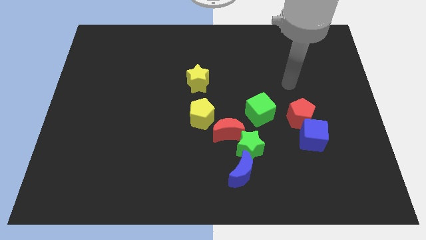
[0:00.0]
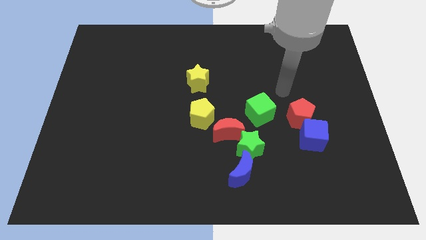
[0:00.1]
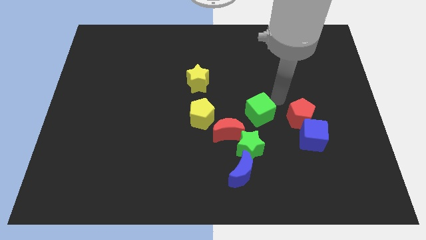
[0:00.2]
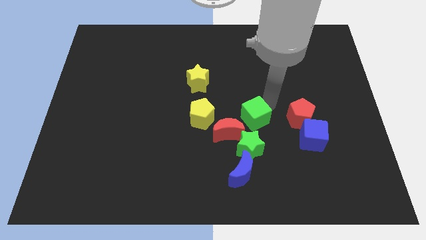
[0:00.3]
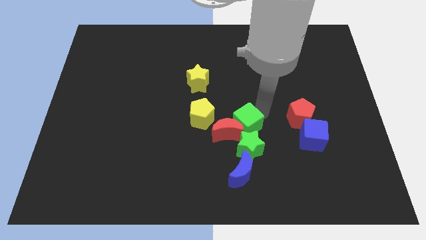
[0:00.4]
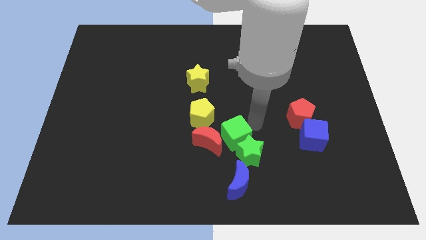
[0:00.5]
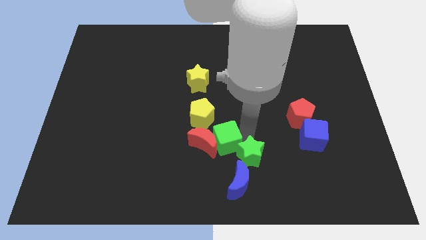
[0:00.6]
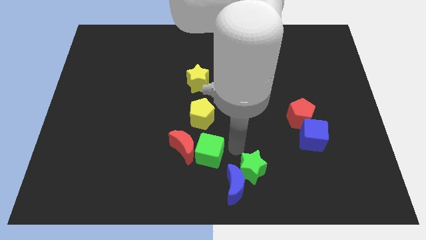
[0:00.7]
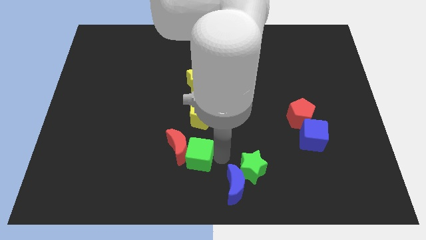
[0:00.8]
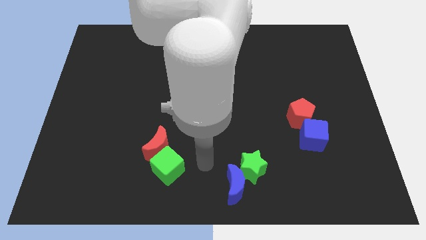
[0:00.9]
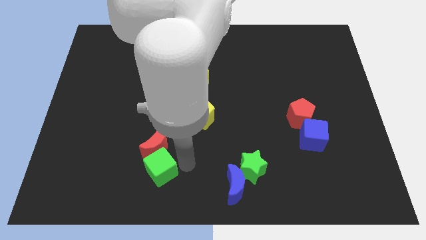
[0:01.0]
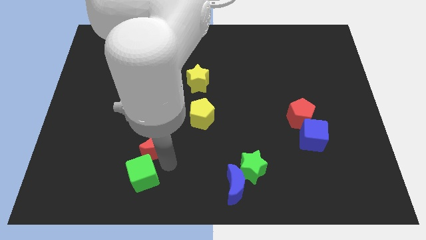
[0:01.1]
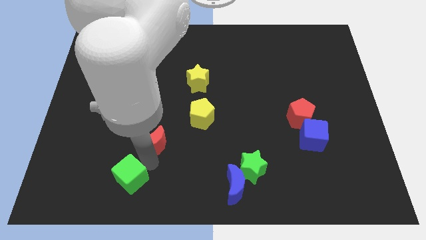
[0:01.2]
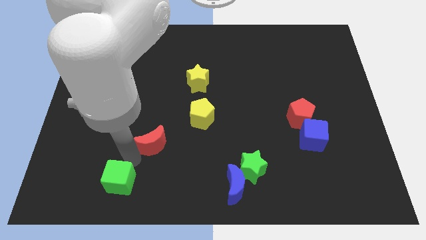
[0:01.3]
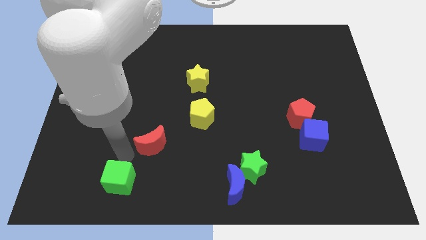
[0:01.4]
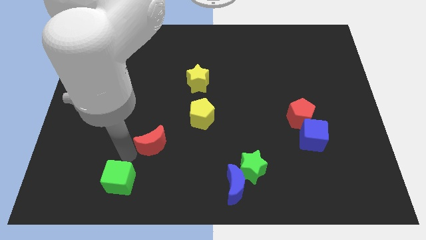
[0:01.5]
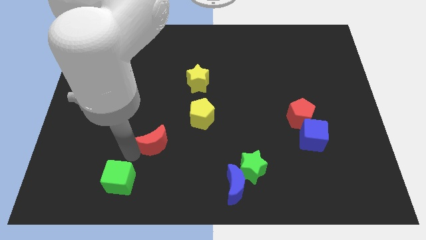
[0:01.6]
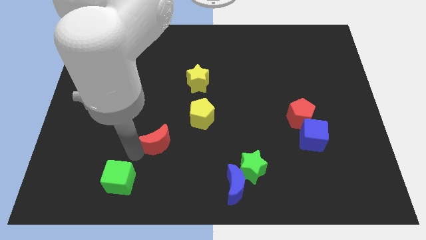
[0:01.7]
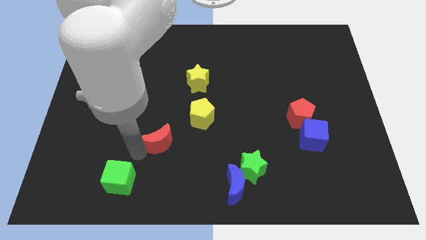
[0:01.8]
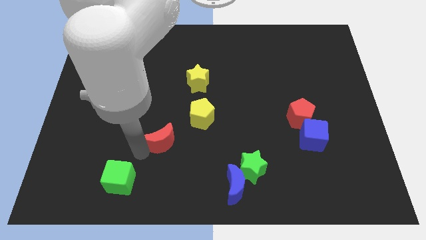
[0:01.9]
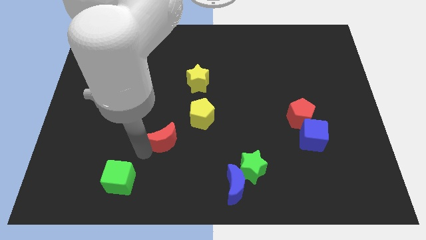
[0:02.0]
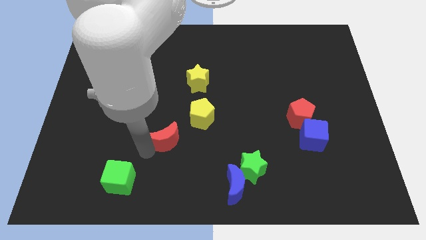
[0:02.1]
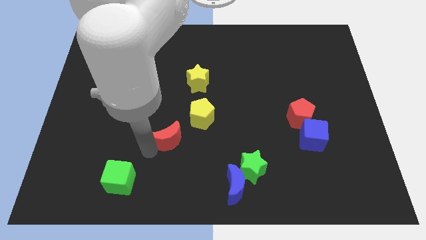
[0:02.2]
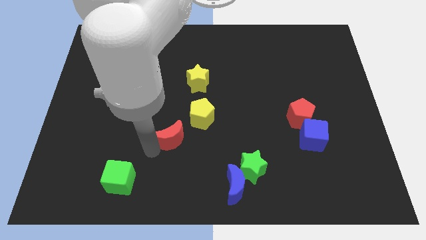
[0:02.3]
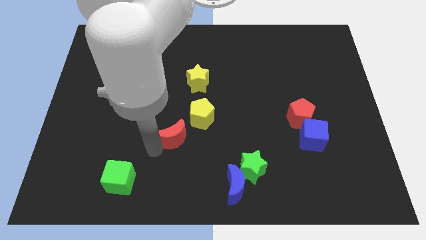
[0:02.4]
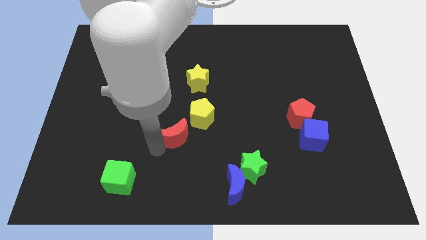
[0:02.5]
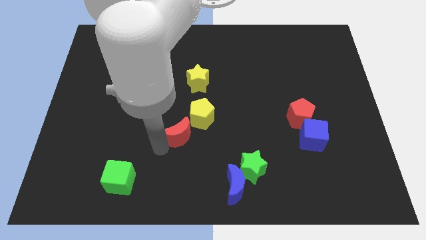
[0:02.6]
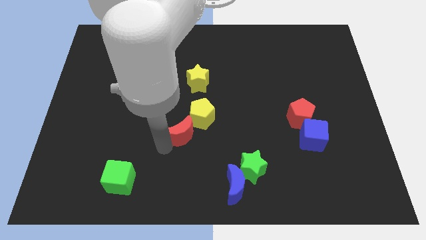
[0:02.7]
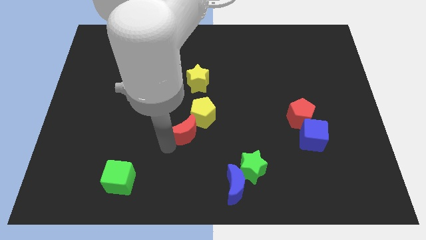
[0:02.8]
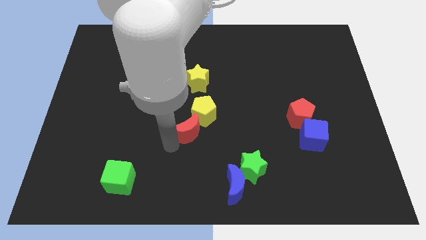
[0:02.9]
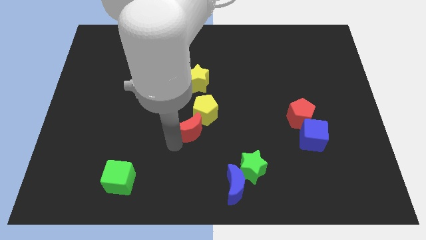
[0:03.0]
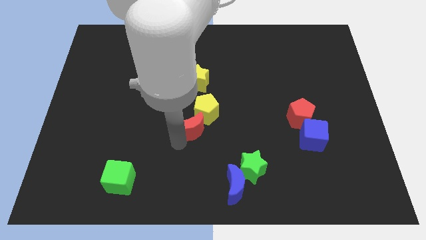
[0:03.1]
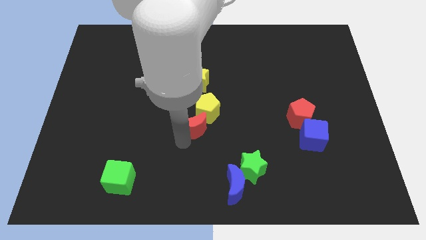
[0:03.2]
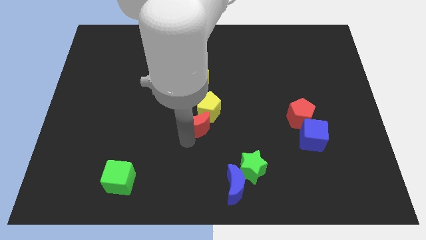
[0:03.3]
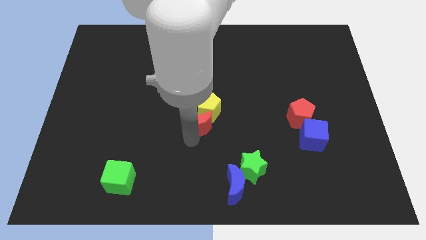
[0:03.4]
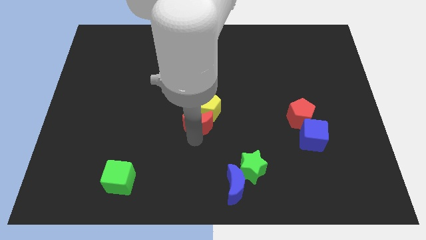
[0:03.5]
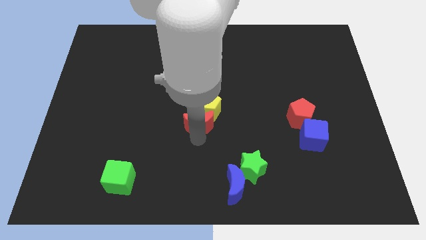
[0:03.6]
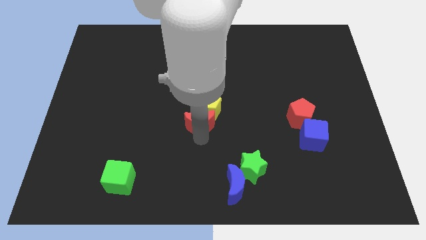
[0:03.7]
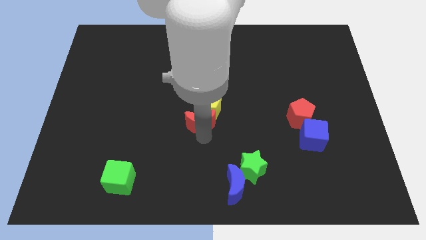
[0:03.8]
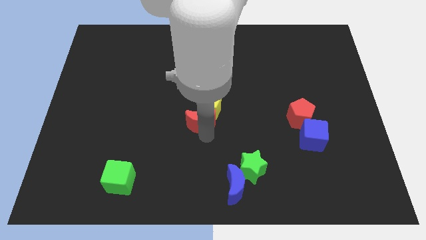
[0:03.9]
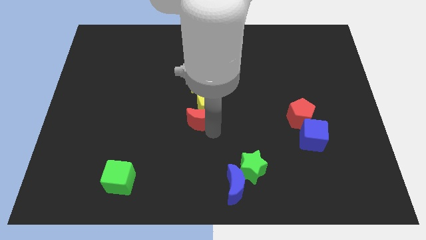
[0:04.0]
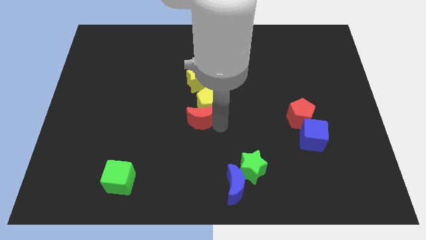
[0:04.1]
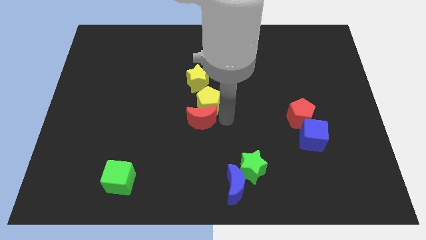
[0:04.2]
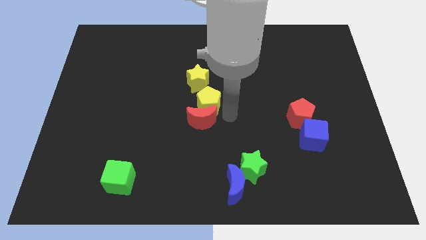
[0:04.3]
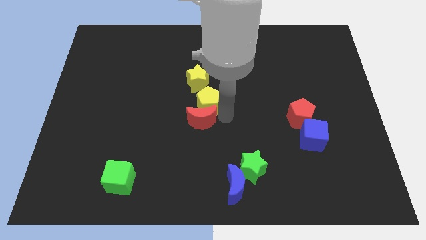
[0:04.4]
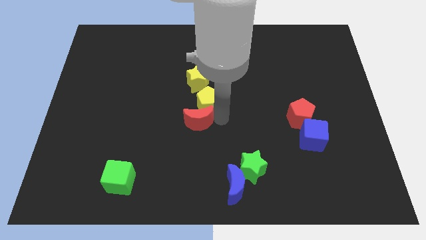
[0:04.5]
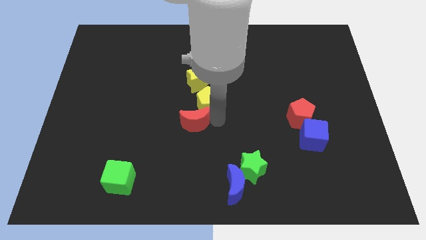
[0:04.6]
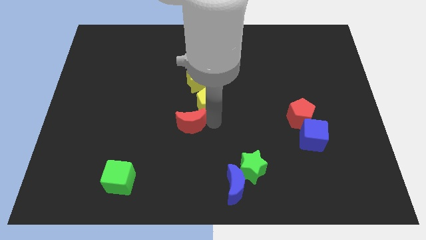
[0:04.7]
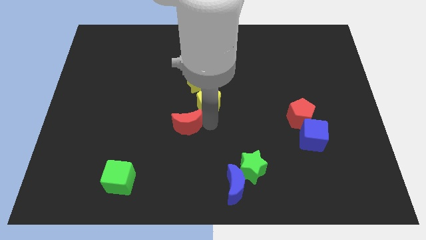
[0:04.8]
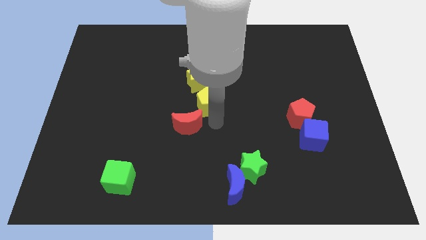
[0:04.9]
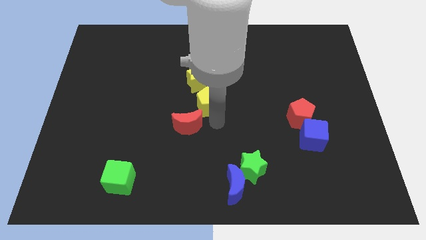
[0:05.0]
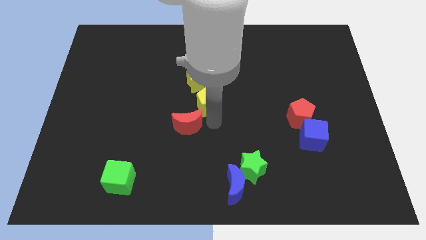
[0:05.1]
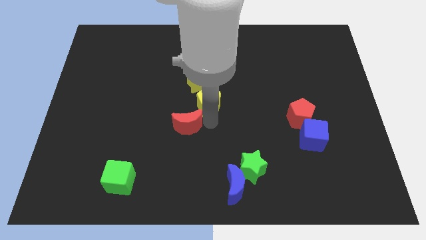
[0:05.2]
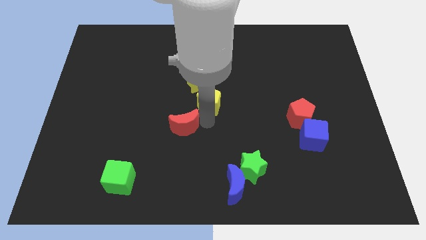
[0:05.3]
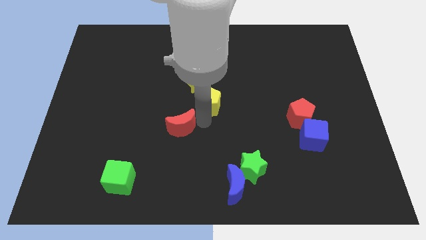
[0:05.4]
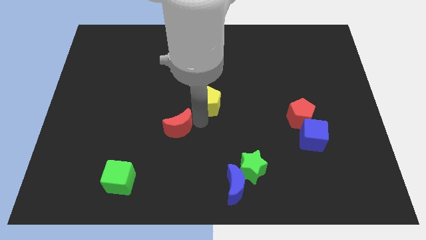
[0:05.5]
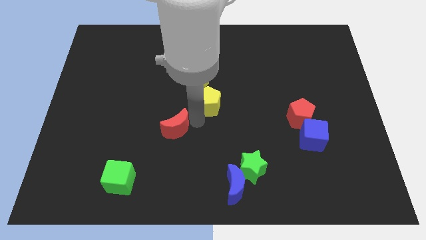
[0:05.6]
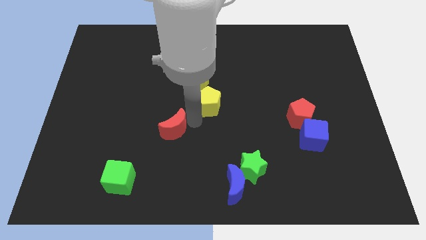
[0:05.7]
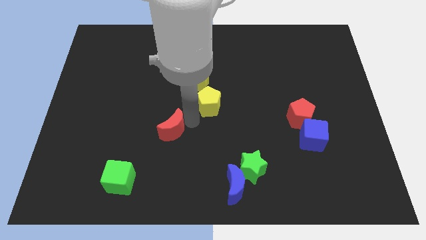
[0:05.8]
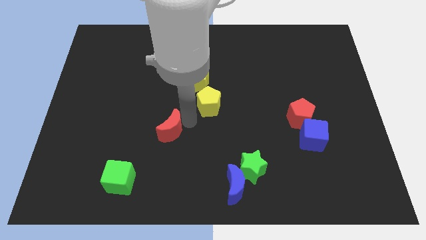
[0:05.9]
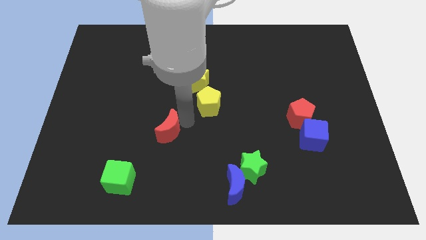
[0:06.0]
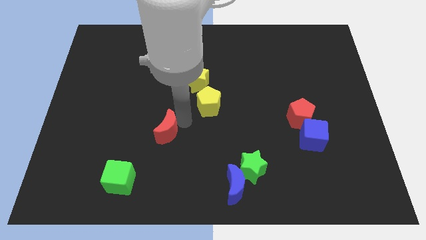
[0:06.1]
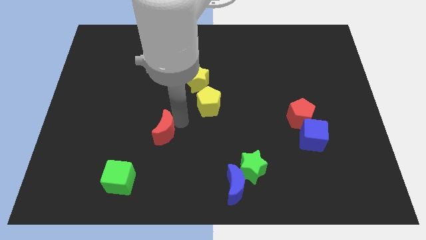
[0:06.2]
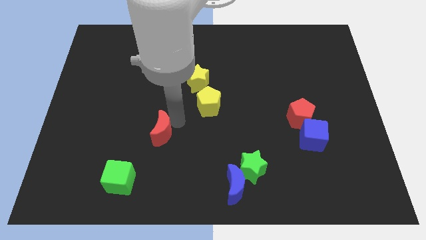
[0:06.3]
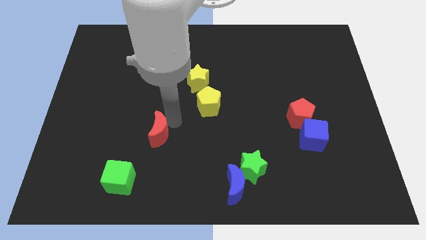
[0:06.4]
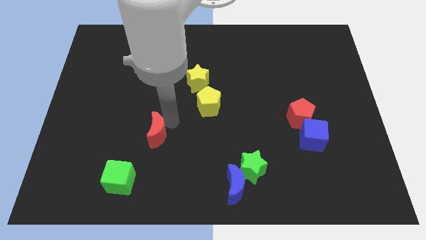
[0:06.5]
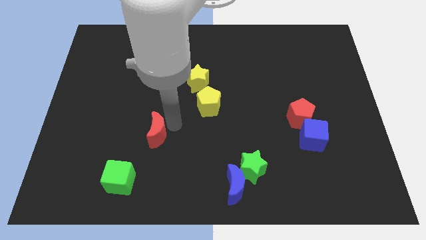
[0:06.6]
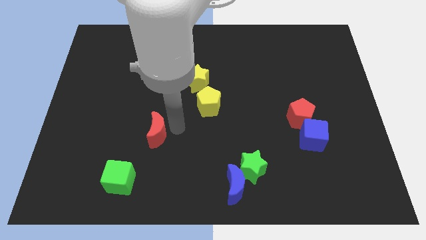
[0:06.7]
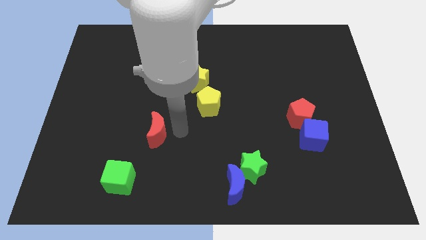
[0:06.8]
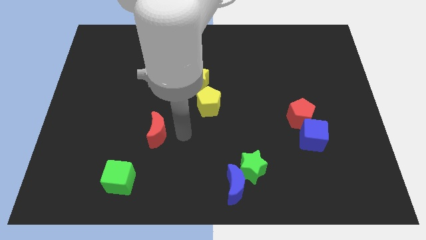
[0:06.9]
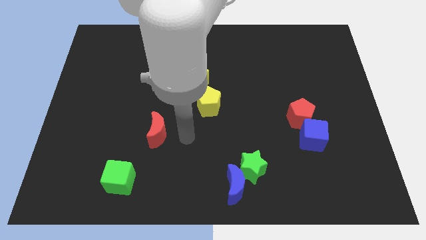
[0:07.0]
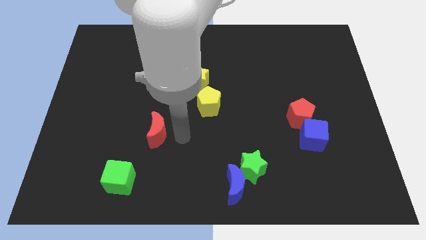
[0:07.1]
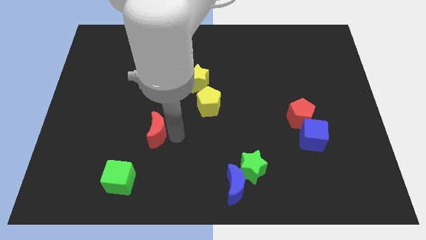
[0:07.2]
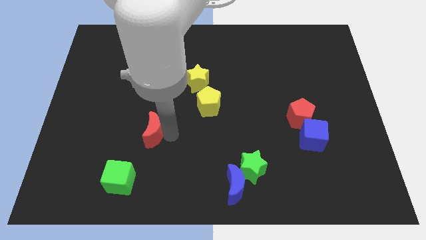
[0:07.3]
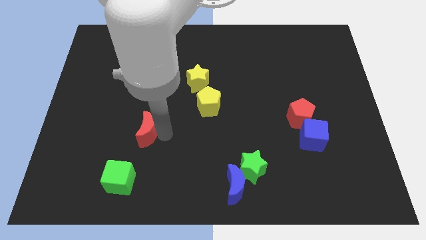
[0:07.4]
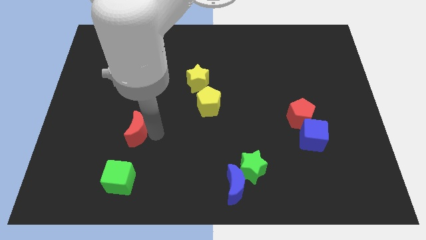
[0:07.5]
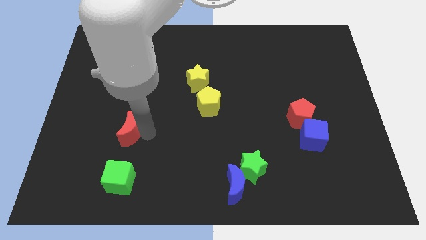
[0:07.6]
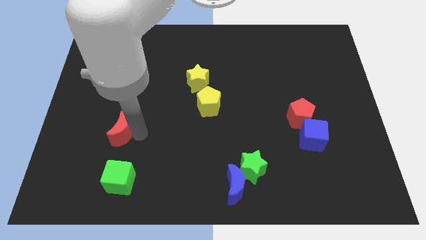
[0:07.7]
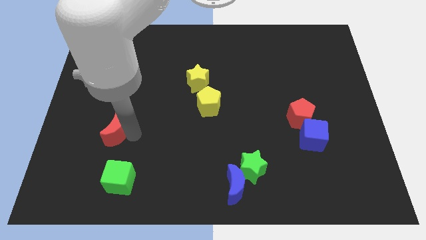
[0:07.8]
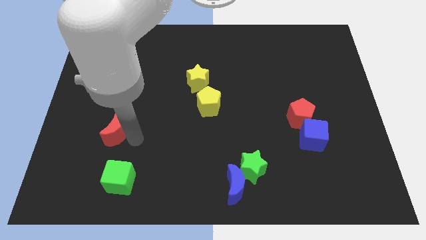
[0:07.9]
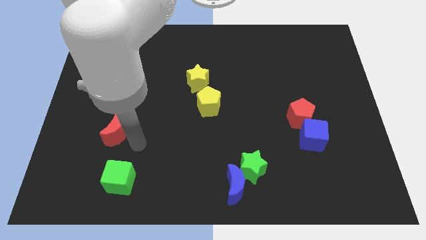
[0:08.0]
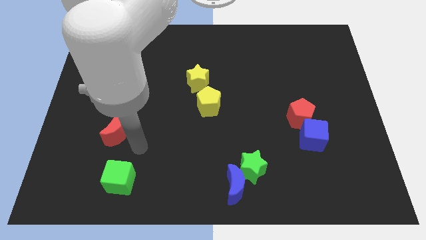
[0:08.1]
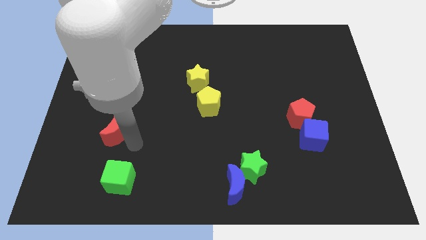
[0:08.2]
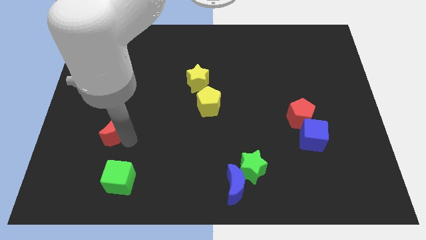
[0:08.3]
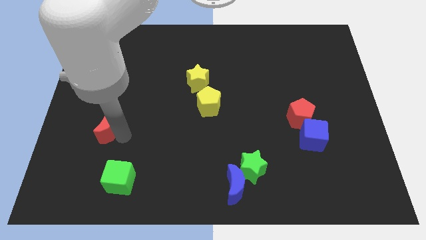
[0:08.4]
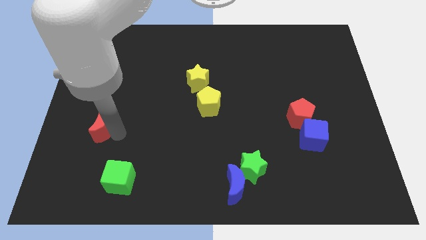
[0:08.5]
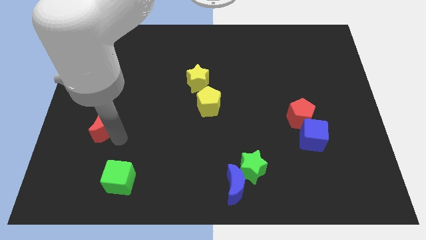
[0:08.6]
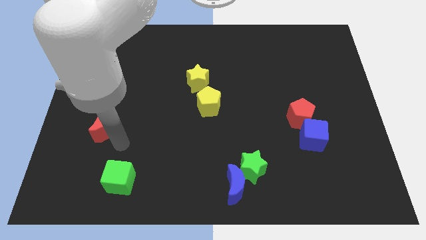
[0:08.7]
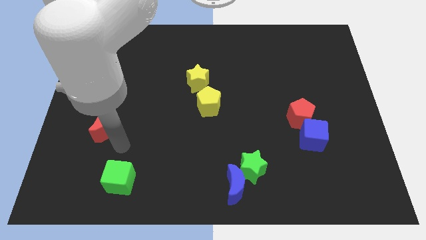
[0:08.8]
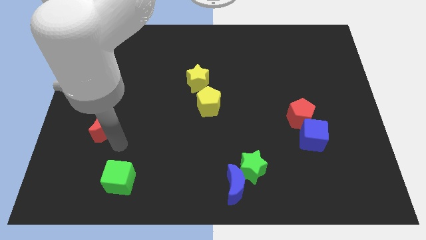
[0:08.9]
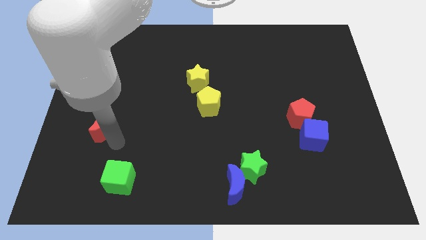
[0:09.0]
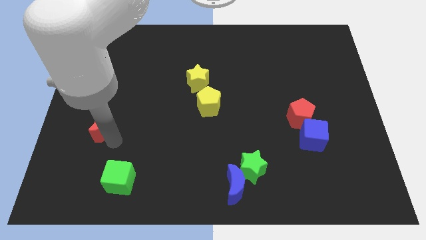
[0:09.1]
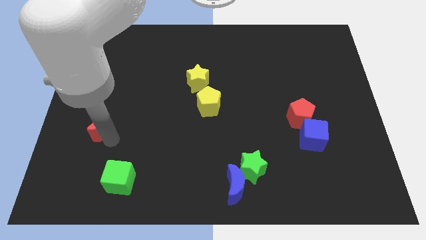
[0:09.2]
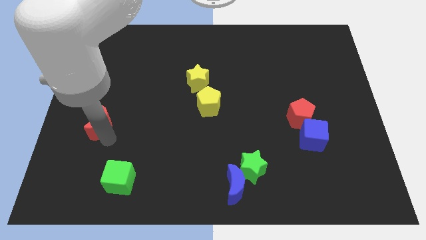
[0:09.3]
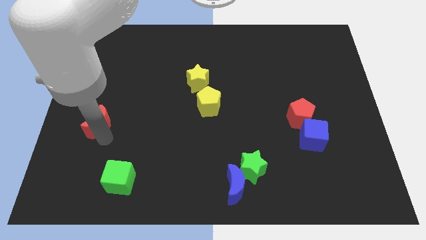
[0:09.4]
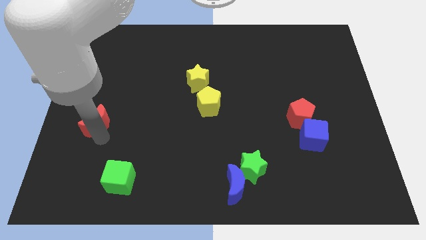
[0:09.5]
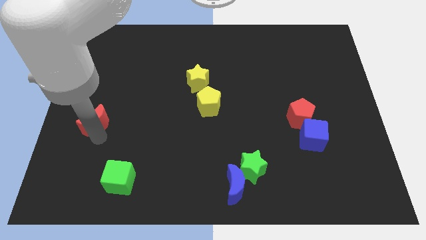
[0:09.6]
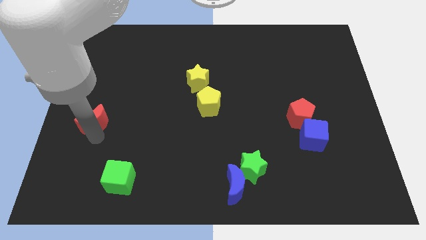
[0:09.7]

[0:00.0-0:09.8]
slide the red moon to the center left
